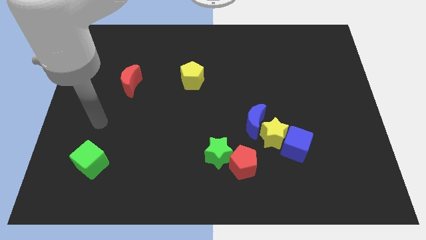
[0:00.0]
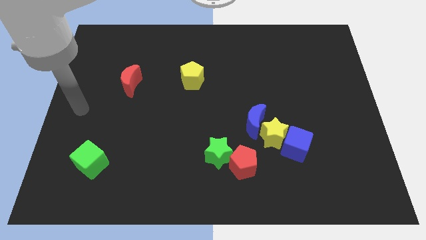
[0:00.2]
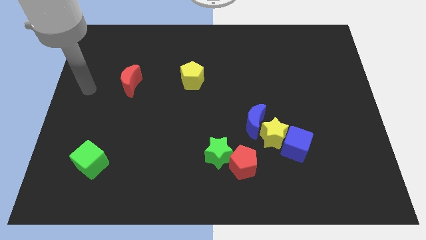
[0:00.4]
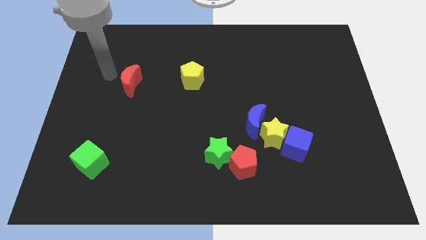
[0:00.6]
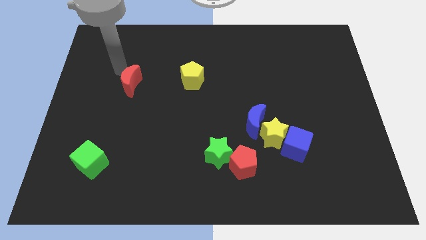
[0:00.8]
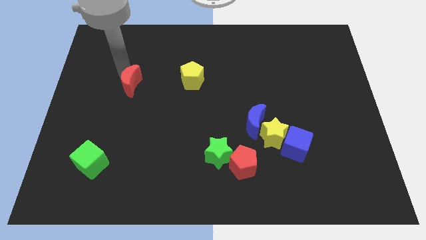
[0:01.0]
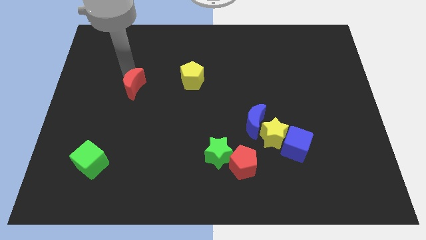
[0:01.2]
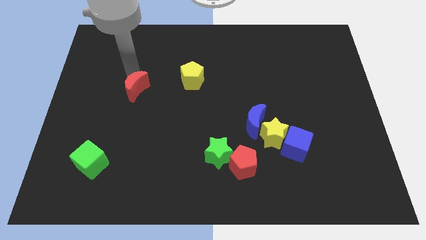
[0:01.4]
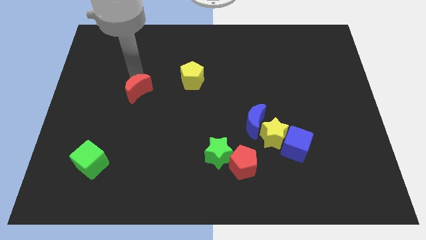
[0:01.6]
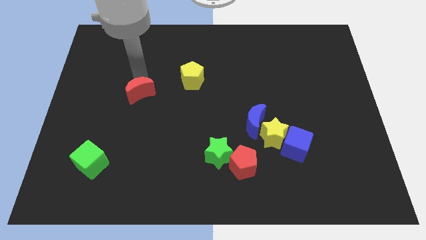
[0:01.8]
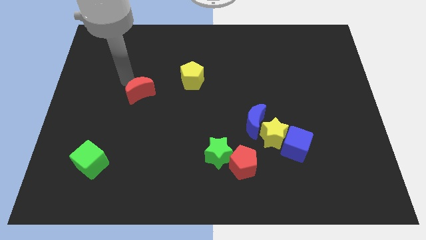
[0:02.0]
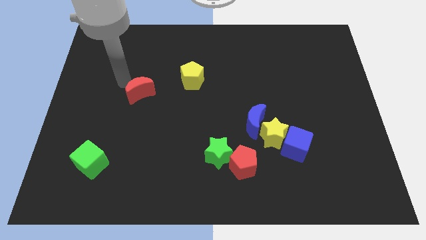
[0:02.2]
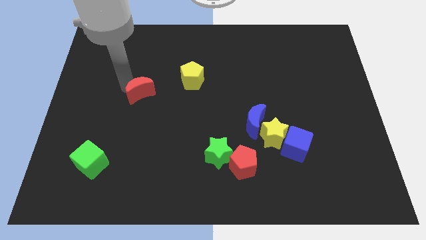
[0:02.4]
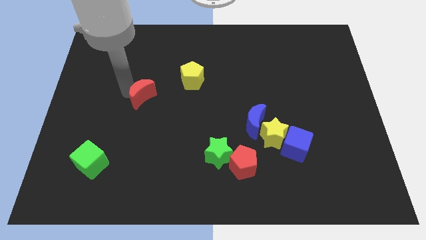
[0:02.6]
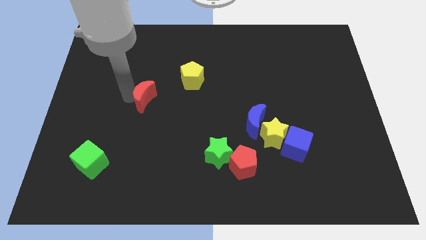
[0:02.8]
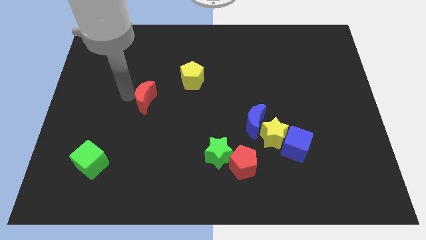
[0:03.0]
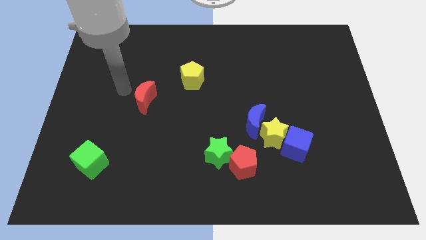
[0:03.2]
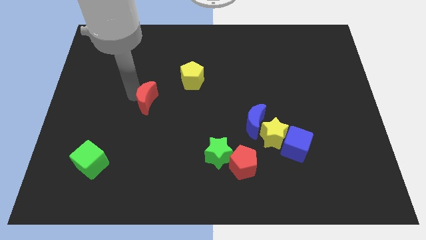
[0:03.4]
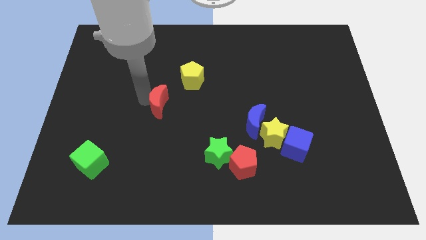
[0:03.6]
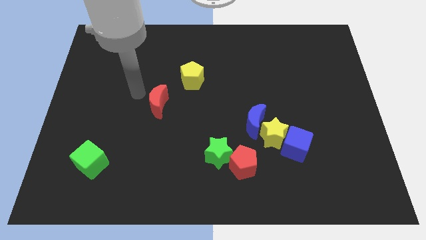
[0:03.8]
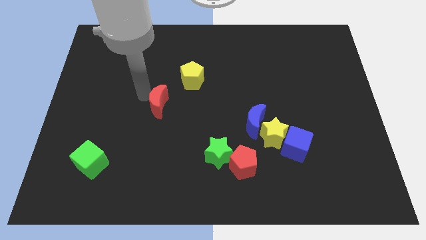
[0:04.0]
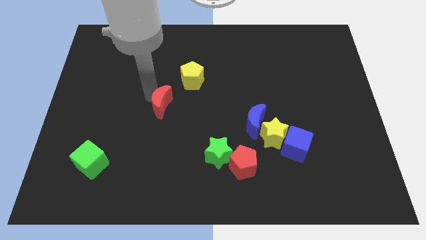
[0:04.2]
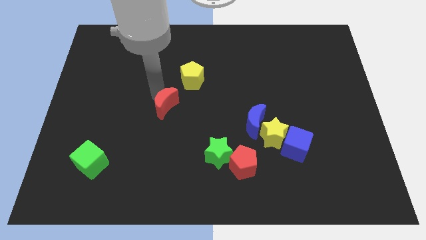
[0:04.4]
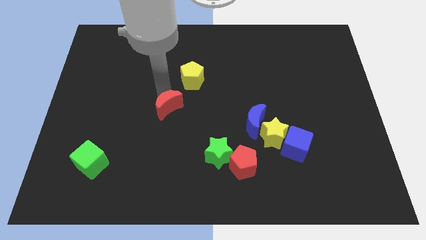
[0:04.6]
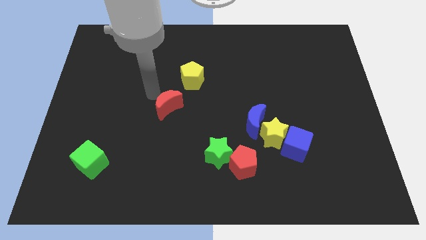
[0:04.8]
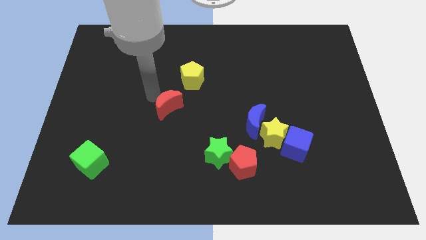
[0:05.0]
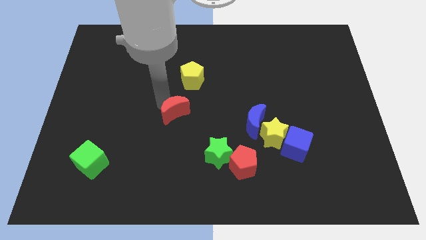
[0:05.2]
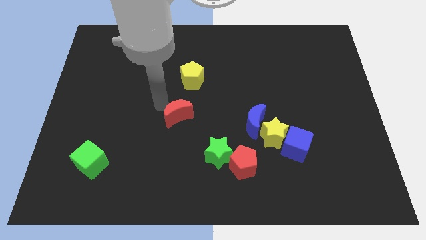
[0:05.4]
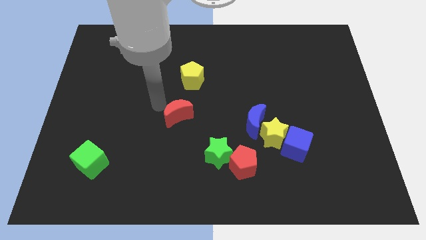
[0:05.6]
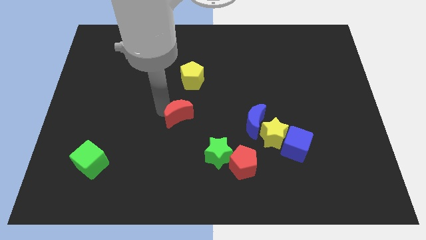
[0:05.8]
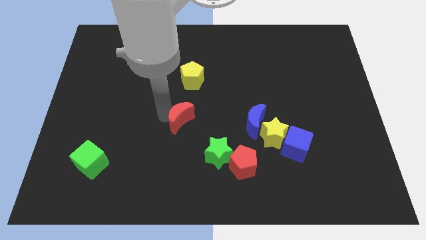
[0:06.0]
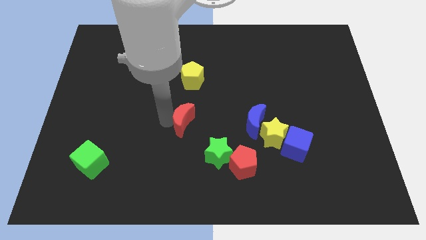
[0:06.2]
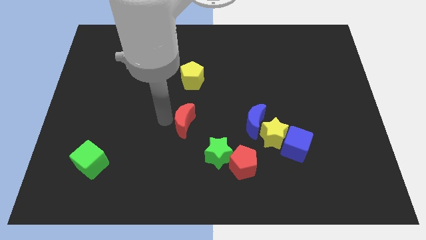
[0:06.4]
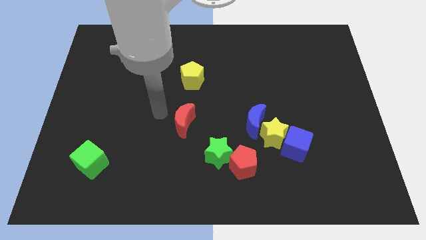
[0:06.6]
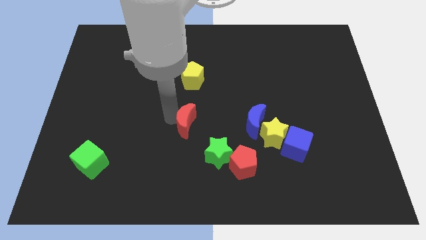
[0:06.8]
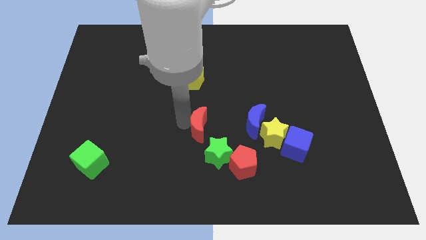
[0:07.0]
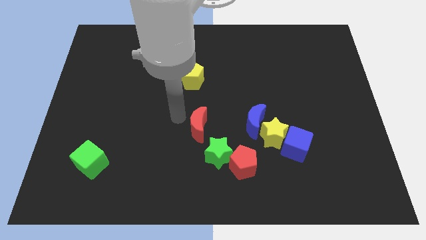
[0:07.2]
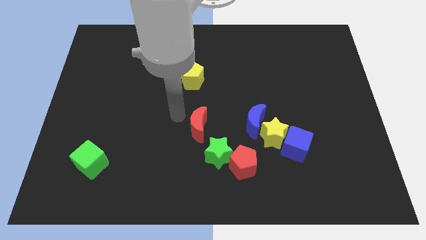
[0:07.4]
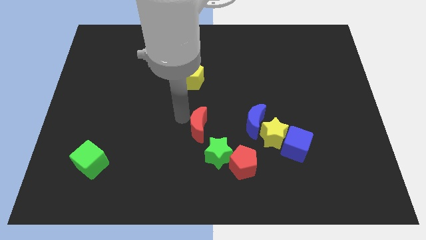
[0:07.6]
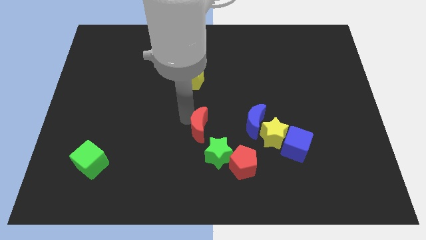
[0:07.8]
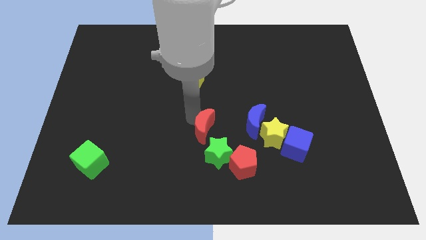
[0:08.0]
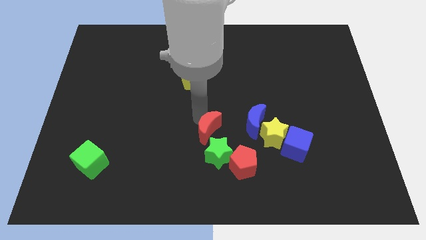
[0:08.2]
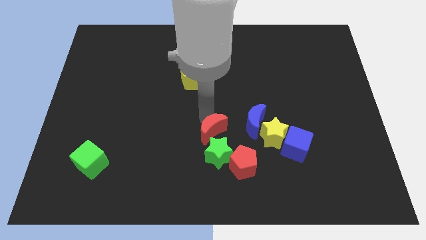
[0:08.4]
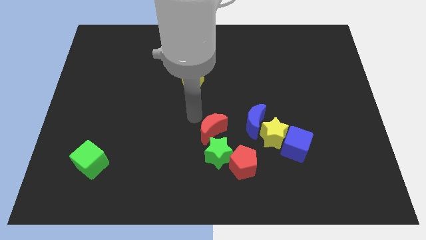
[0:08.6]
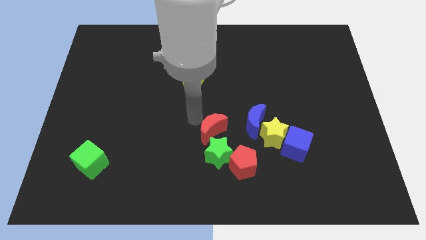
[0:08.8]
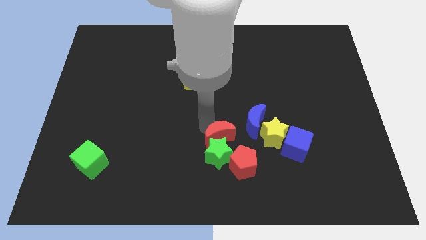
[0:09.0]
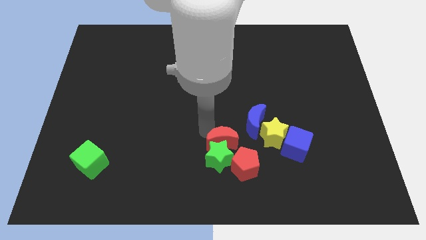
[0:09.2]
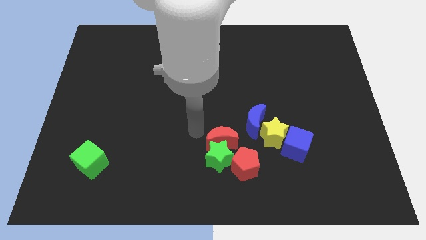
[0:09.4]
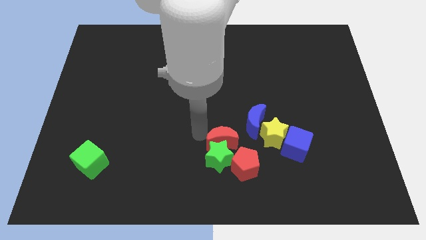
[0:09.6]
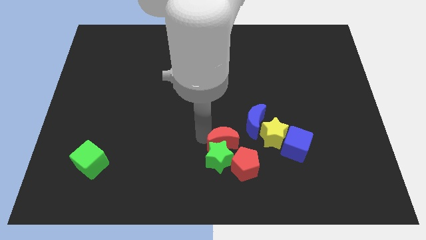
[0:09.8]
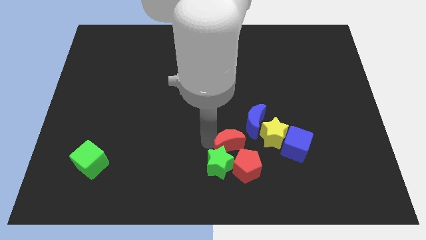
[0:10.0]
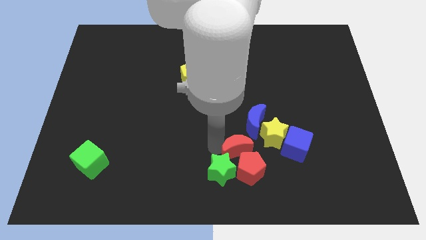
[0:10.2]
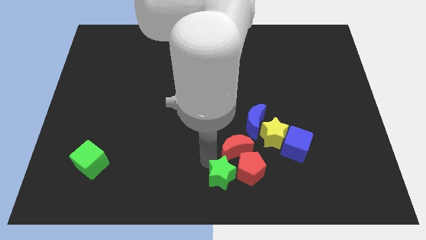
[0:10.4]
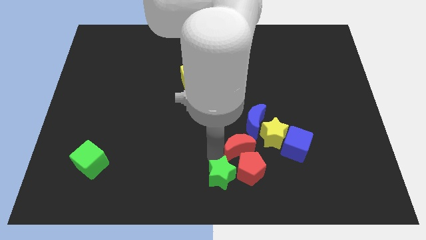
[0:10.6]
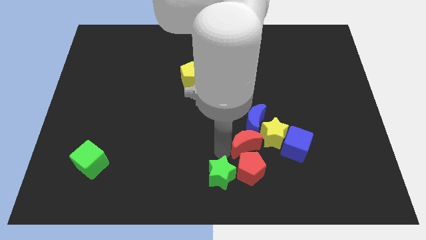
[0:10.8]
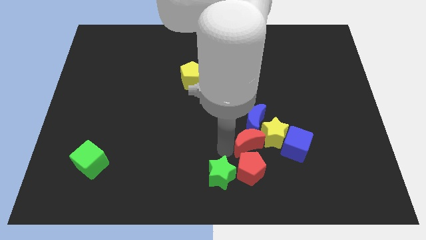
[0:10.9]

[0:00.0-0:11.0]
push the red moon next to the yellow star

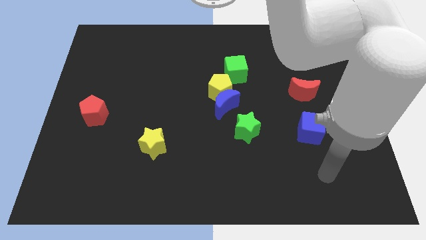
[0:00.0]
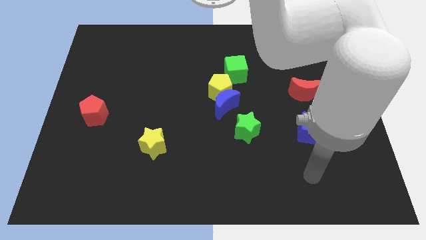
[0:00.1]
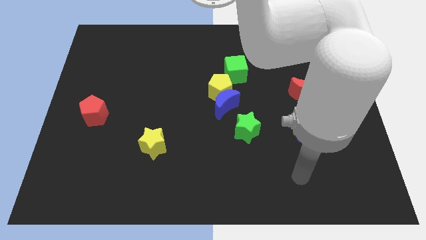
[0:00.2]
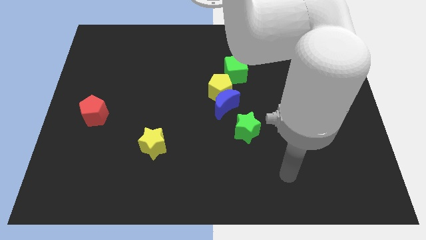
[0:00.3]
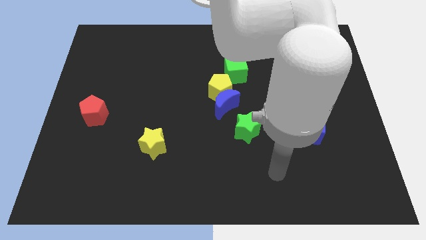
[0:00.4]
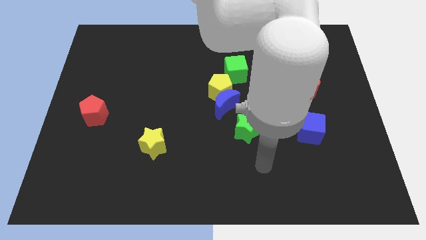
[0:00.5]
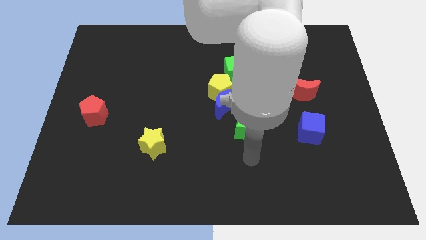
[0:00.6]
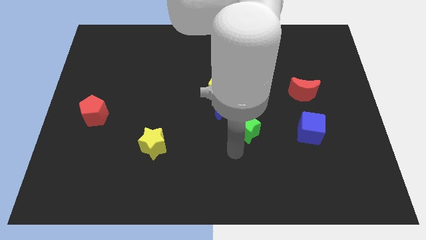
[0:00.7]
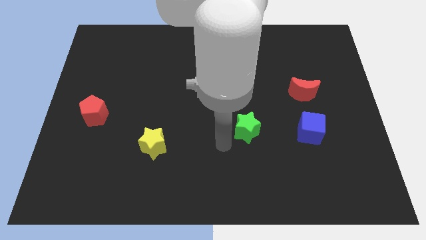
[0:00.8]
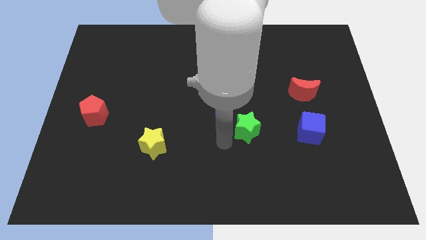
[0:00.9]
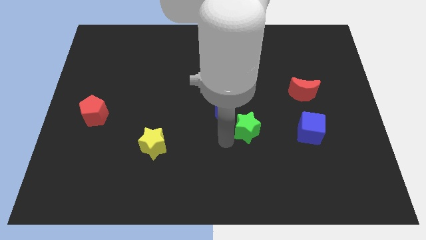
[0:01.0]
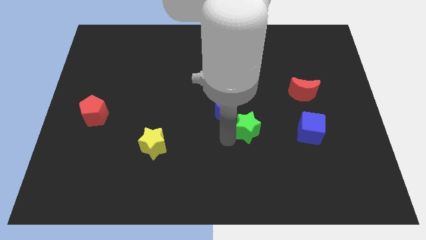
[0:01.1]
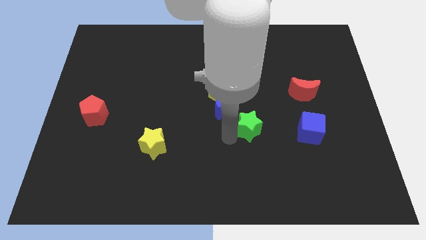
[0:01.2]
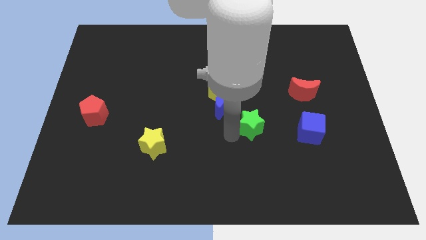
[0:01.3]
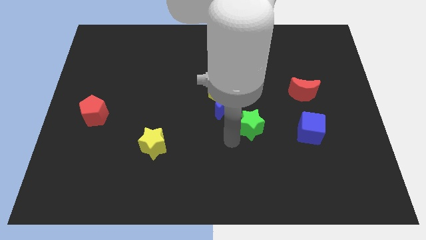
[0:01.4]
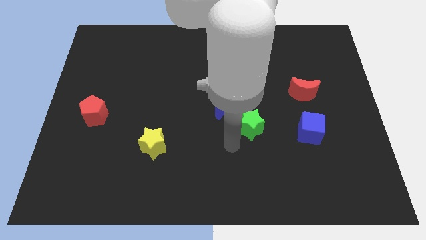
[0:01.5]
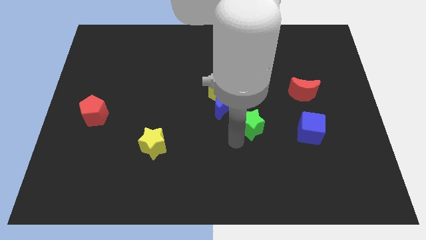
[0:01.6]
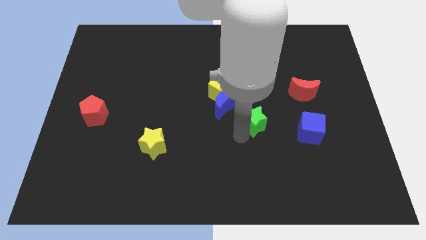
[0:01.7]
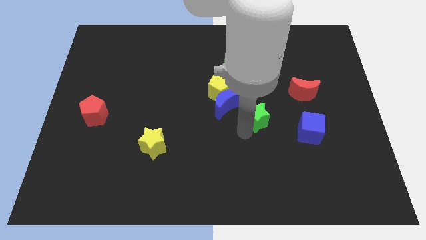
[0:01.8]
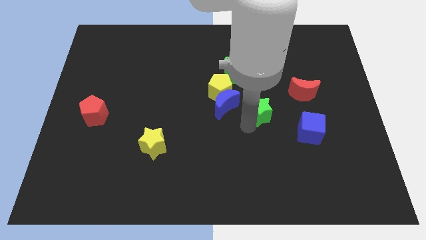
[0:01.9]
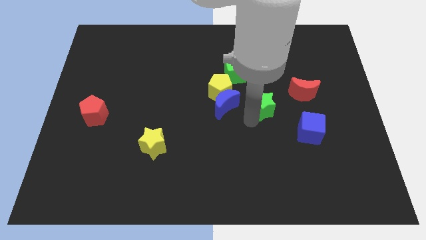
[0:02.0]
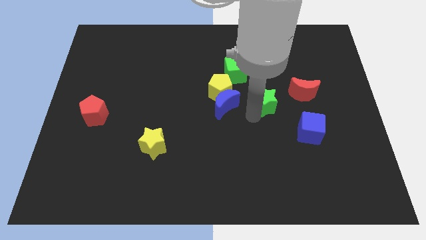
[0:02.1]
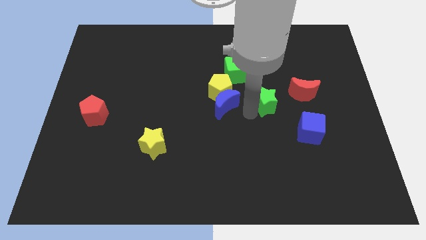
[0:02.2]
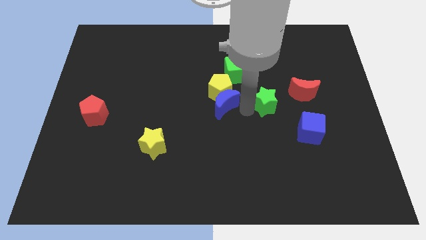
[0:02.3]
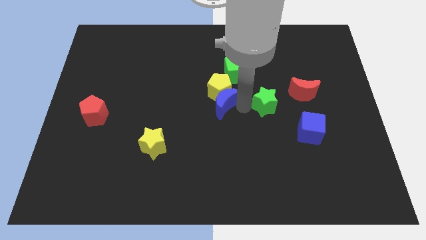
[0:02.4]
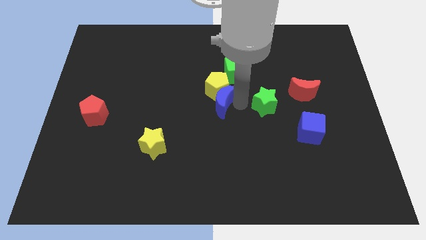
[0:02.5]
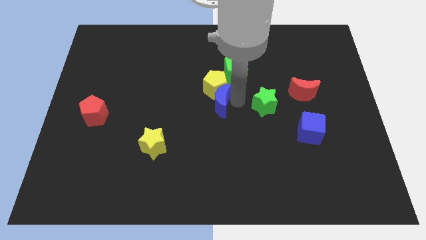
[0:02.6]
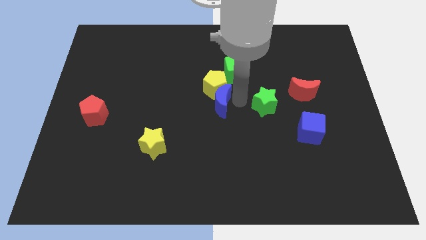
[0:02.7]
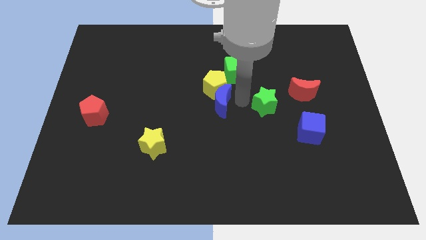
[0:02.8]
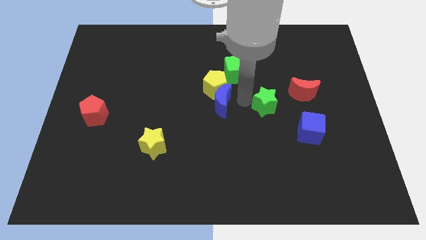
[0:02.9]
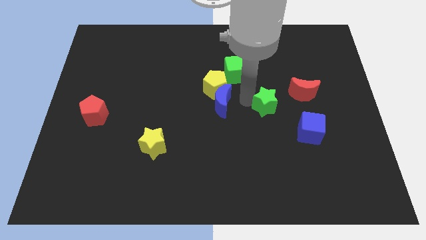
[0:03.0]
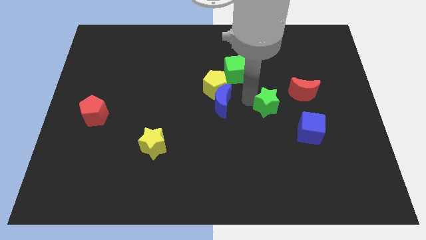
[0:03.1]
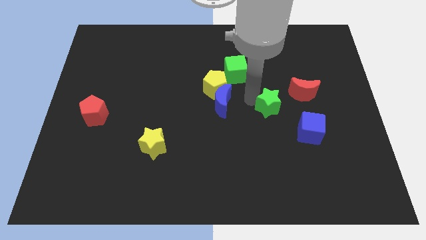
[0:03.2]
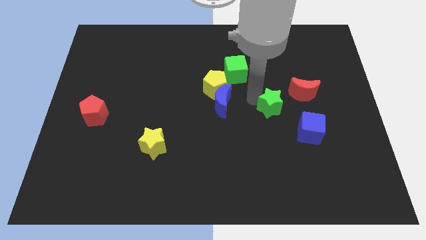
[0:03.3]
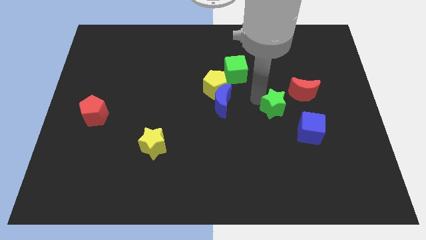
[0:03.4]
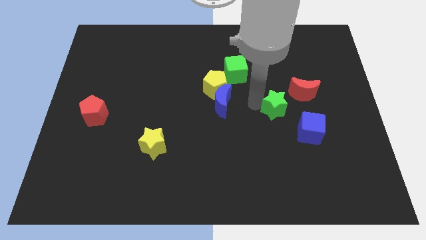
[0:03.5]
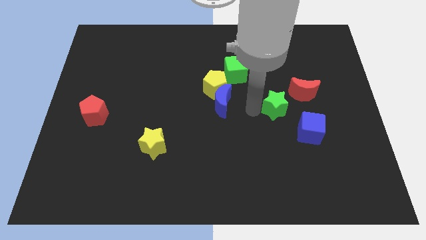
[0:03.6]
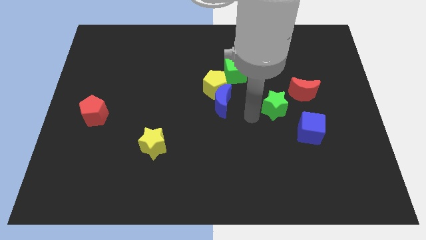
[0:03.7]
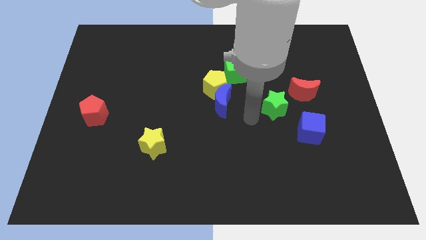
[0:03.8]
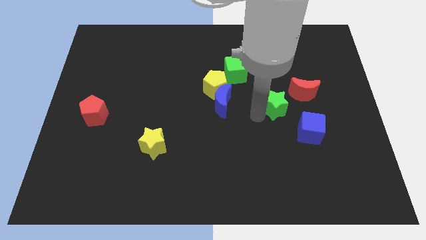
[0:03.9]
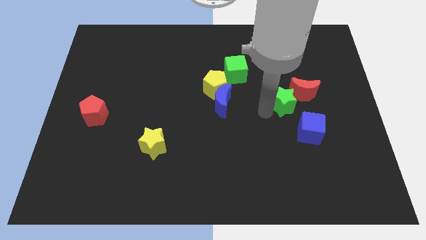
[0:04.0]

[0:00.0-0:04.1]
slide the green star to the red moon
